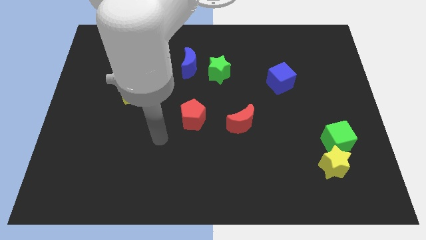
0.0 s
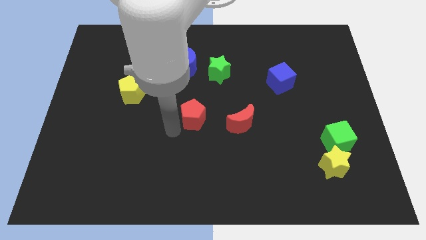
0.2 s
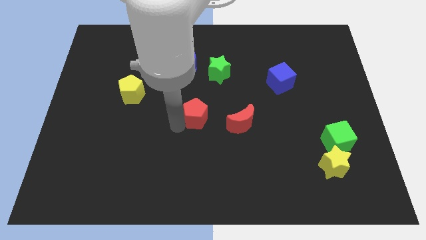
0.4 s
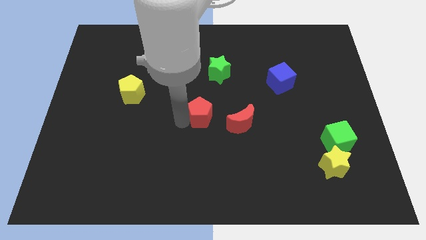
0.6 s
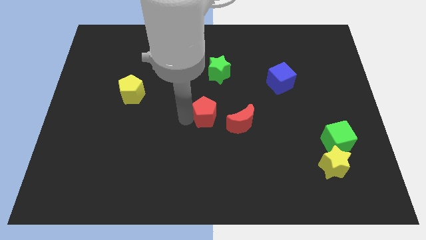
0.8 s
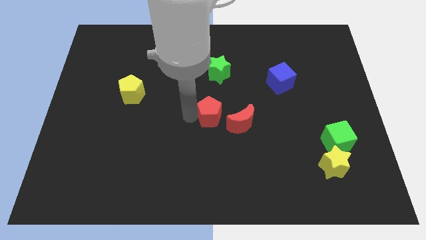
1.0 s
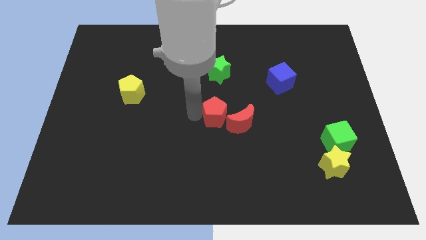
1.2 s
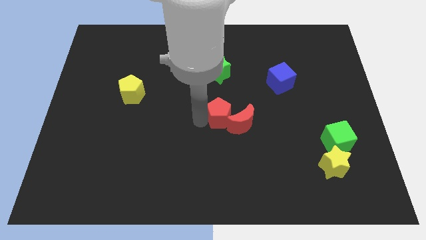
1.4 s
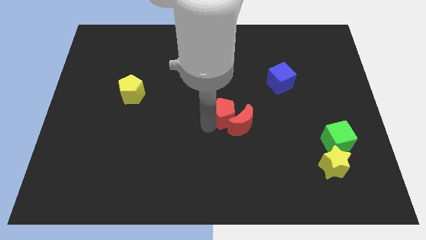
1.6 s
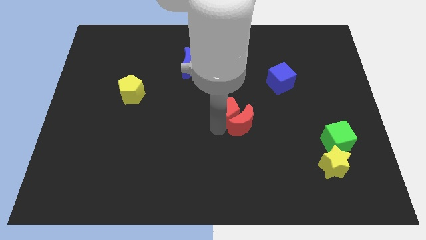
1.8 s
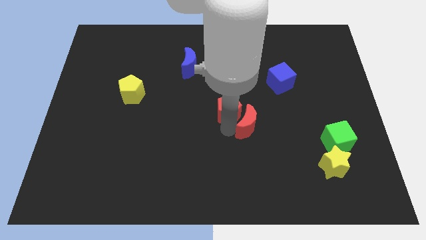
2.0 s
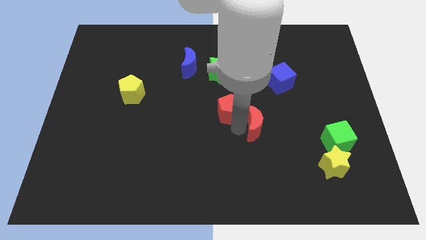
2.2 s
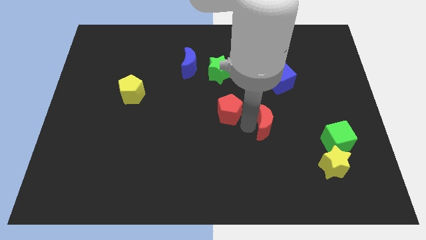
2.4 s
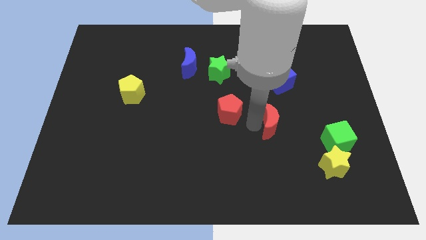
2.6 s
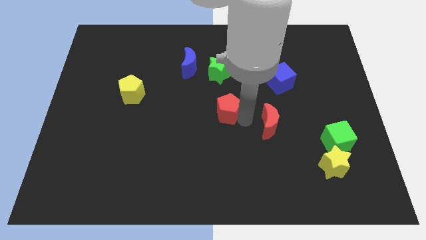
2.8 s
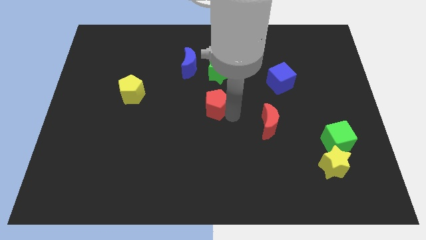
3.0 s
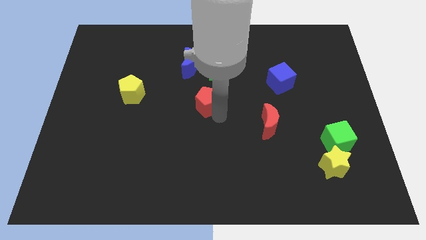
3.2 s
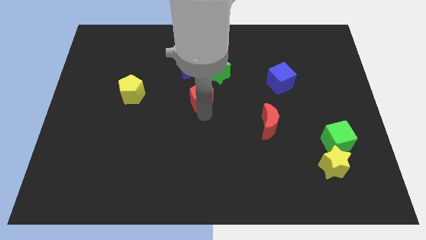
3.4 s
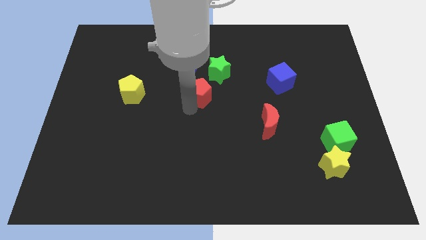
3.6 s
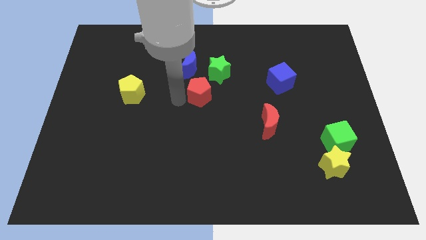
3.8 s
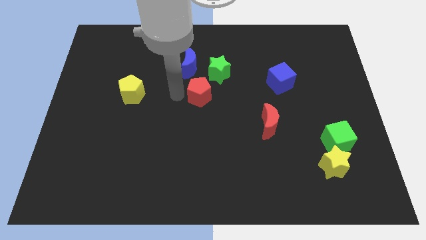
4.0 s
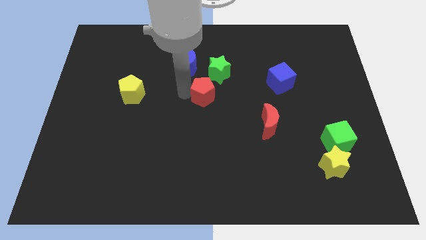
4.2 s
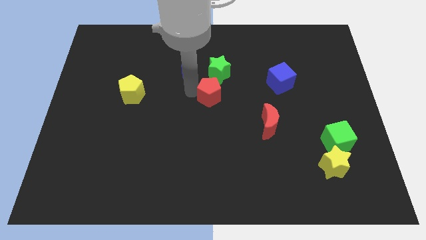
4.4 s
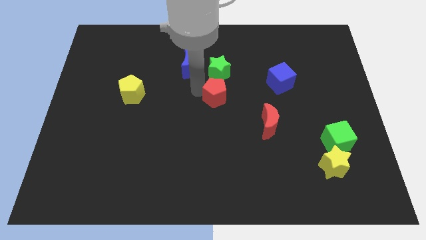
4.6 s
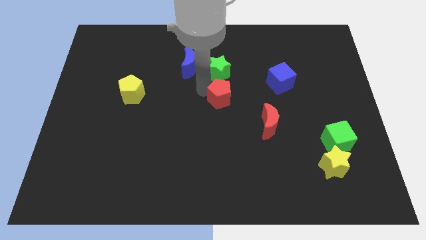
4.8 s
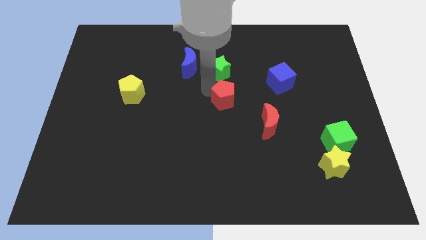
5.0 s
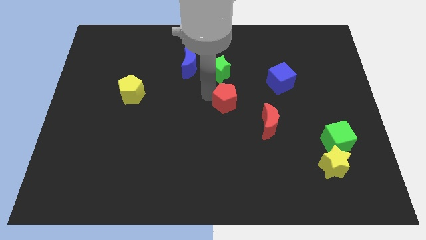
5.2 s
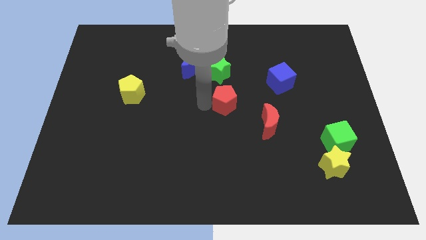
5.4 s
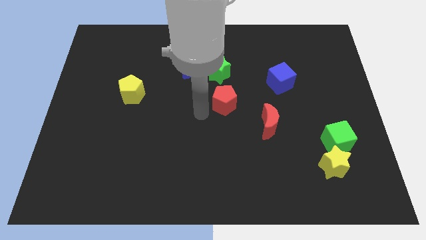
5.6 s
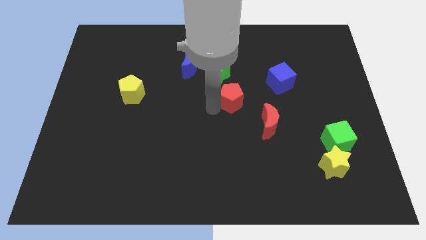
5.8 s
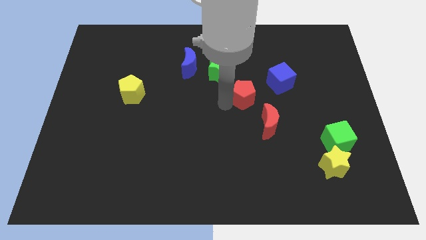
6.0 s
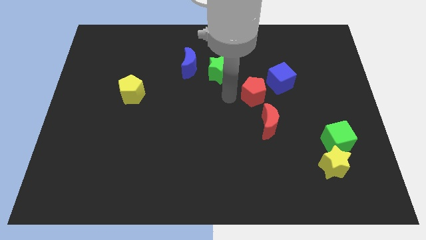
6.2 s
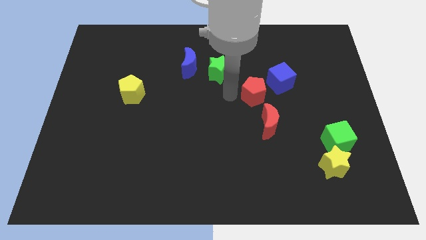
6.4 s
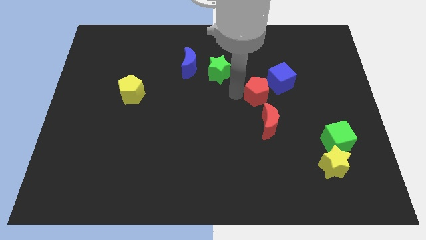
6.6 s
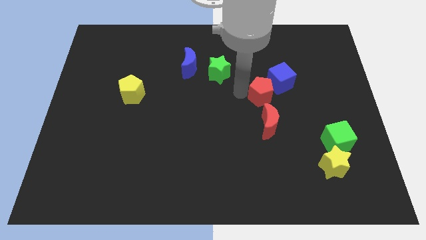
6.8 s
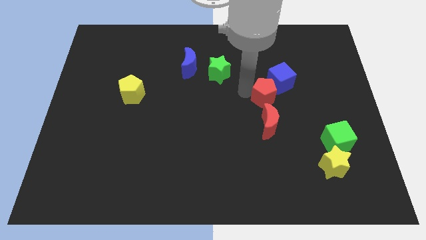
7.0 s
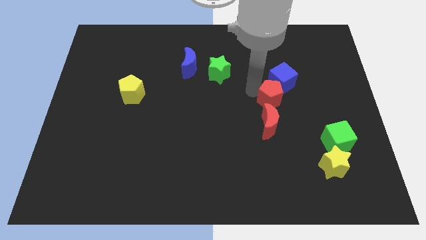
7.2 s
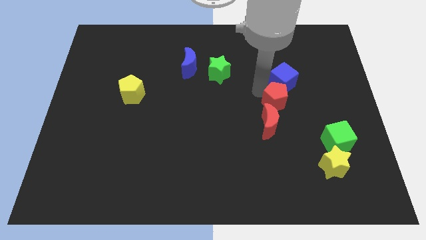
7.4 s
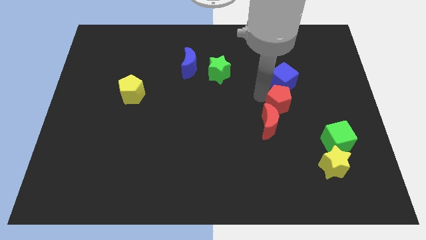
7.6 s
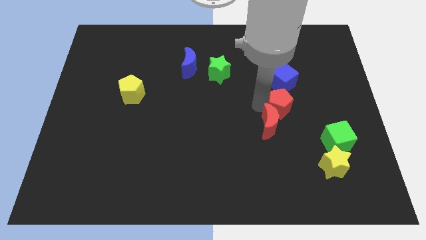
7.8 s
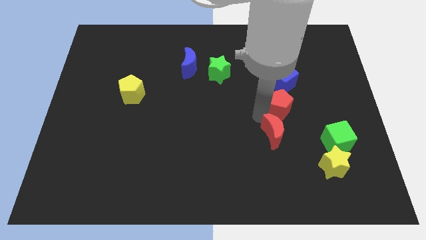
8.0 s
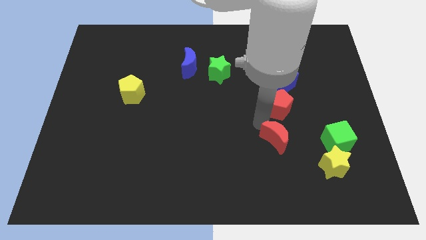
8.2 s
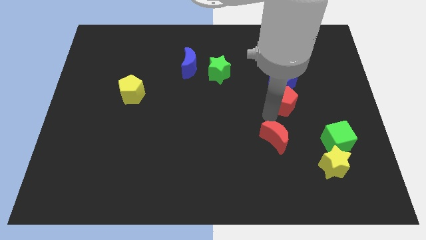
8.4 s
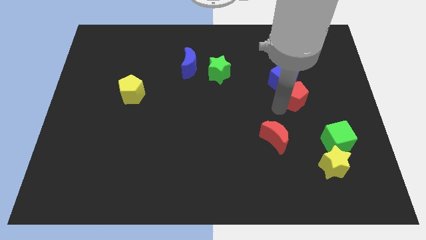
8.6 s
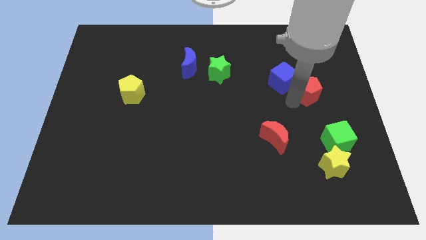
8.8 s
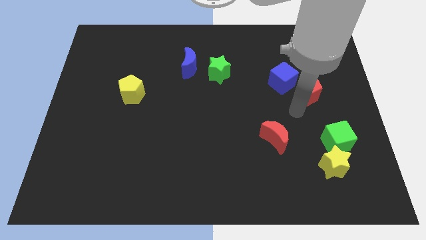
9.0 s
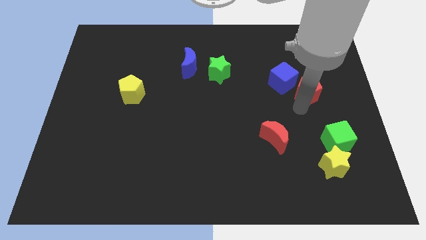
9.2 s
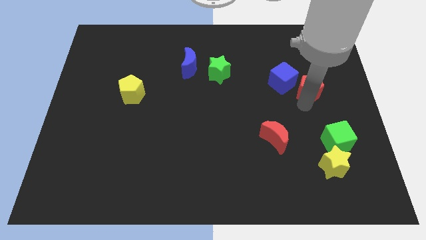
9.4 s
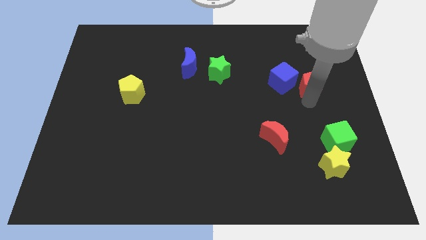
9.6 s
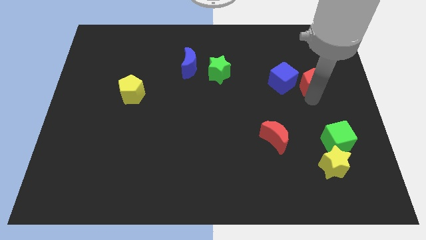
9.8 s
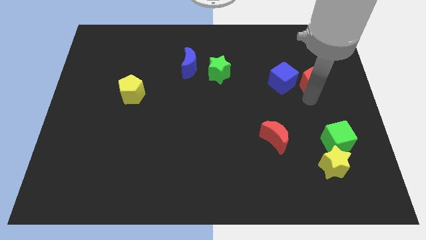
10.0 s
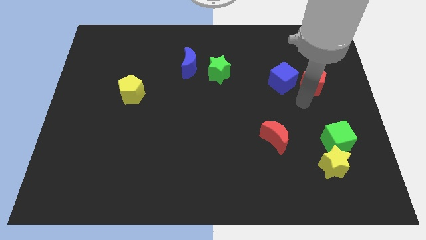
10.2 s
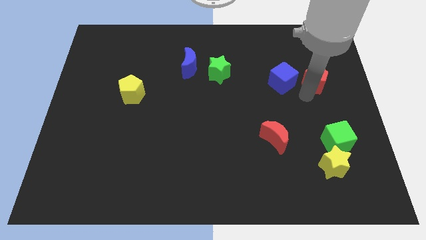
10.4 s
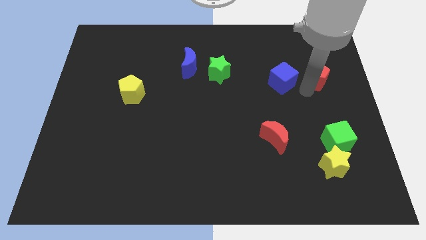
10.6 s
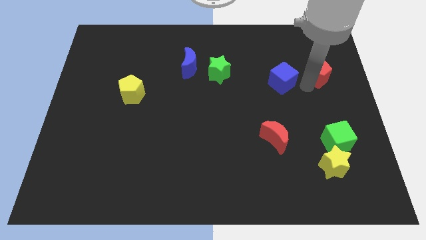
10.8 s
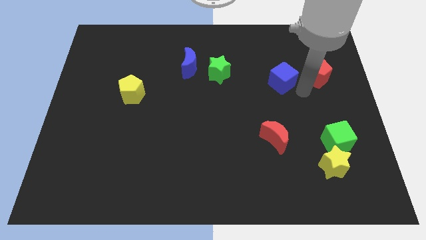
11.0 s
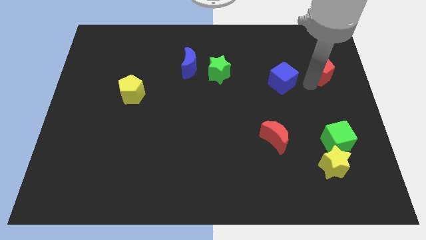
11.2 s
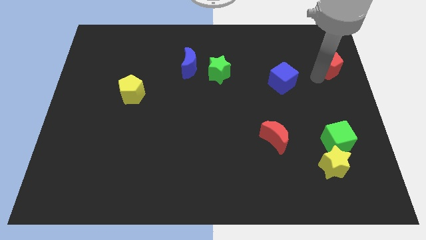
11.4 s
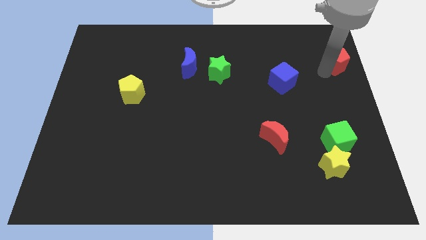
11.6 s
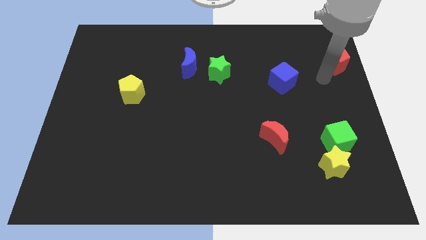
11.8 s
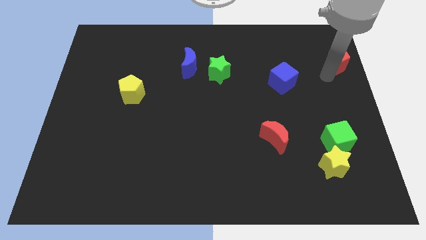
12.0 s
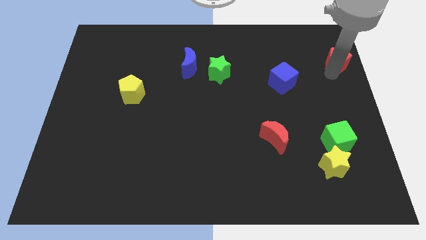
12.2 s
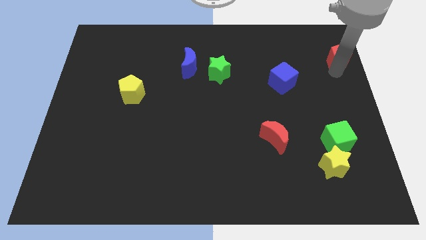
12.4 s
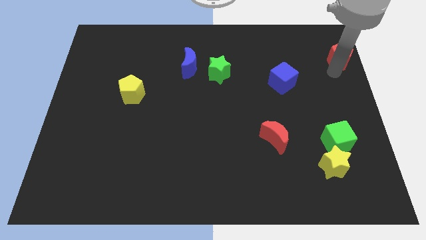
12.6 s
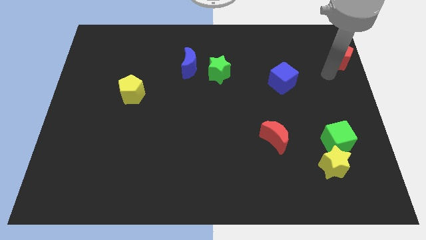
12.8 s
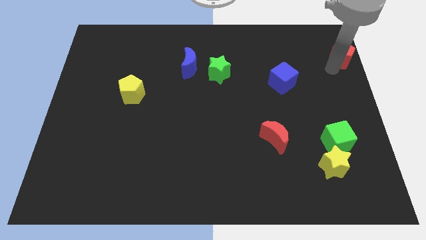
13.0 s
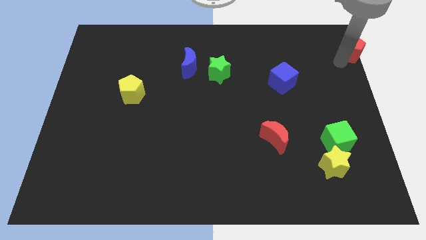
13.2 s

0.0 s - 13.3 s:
put the red pentagon to the top right of the board
